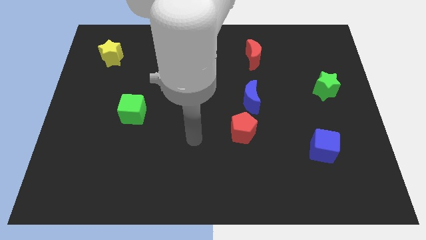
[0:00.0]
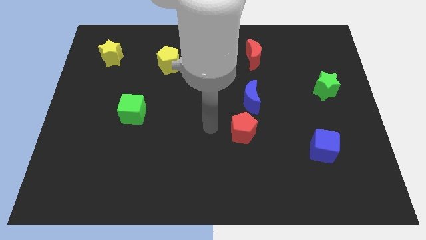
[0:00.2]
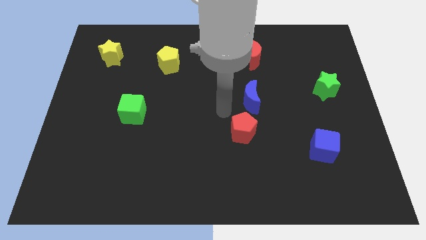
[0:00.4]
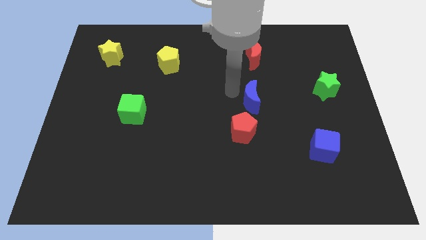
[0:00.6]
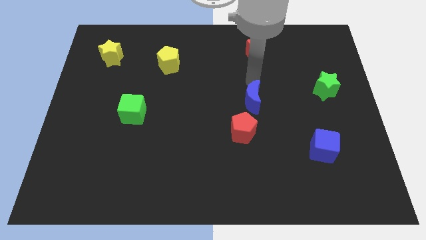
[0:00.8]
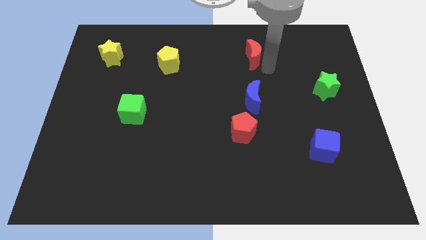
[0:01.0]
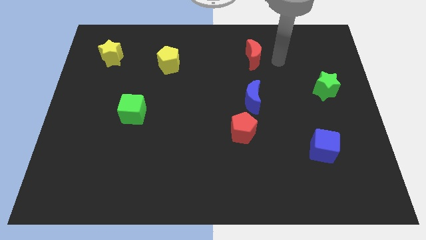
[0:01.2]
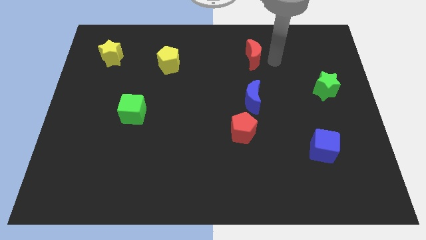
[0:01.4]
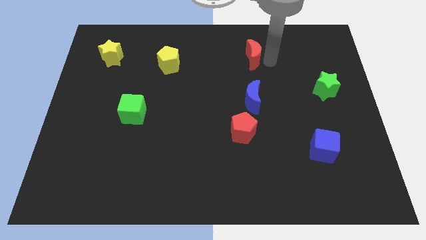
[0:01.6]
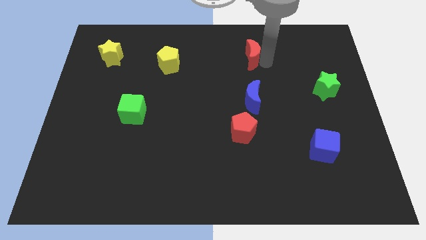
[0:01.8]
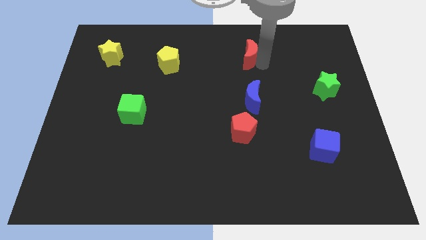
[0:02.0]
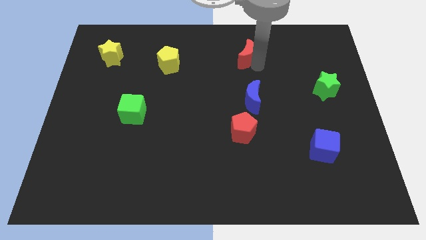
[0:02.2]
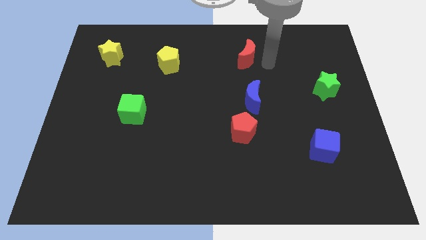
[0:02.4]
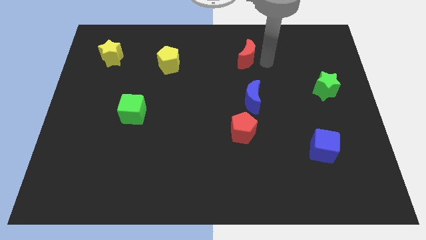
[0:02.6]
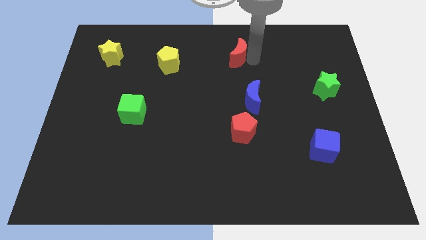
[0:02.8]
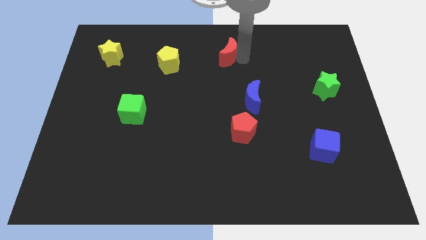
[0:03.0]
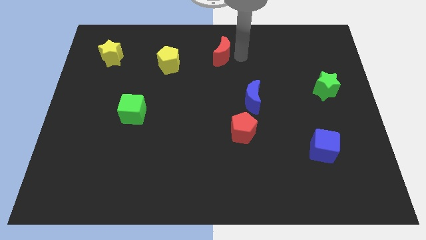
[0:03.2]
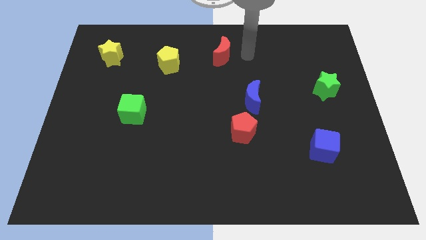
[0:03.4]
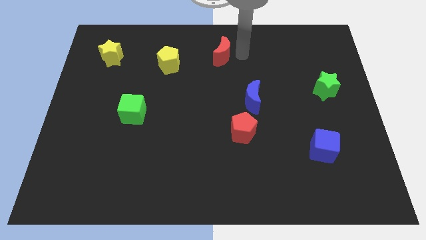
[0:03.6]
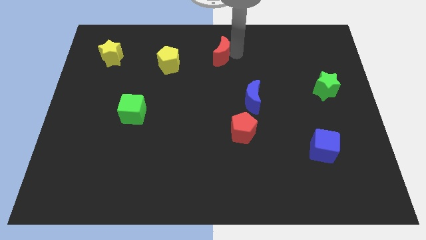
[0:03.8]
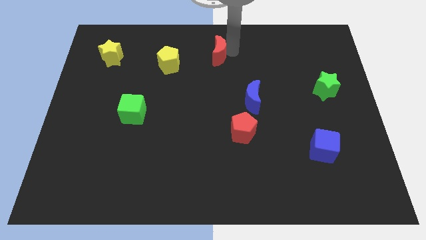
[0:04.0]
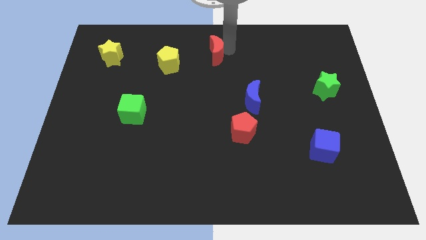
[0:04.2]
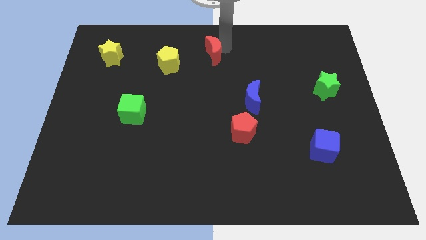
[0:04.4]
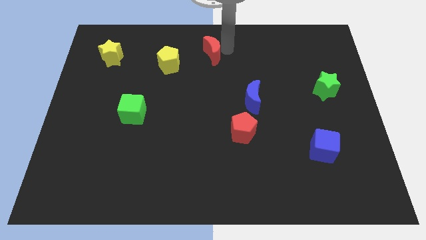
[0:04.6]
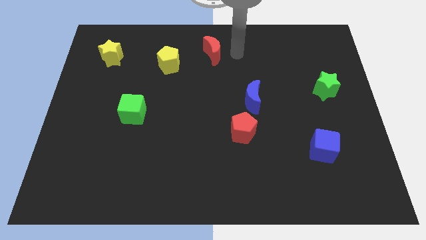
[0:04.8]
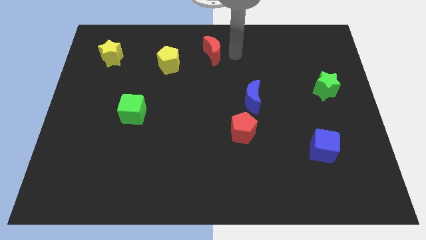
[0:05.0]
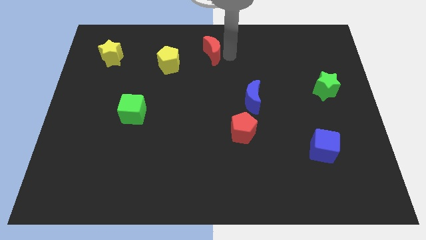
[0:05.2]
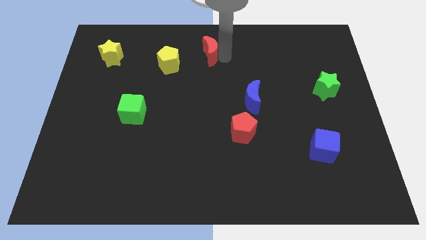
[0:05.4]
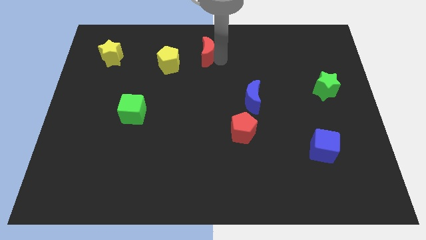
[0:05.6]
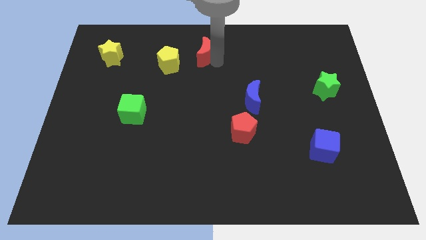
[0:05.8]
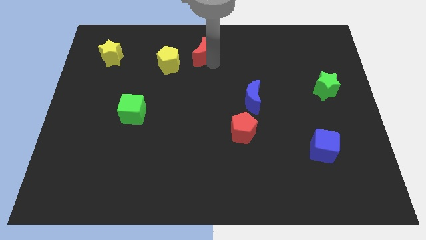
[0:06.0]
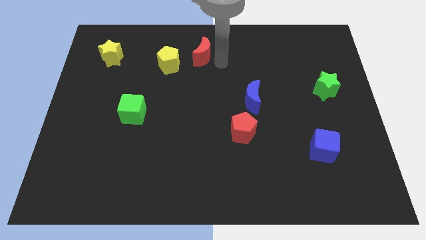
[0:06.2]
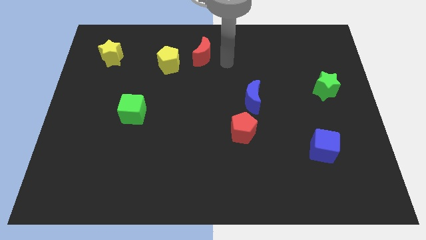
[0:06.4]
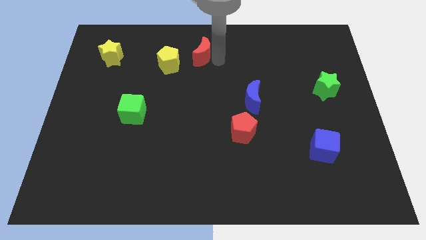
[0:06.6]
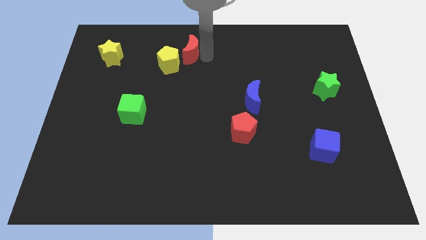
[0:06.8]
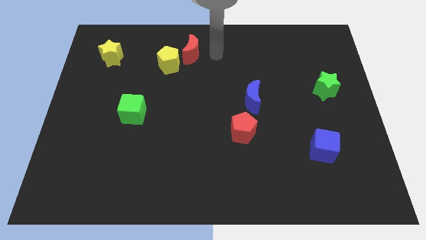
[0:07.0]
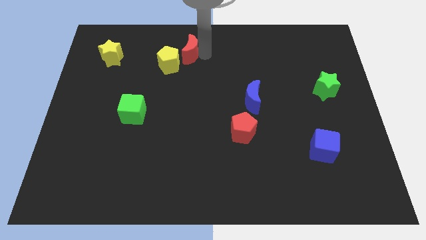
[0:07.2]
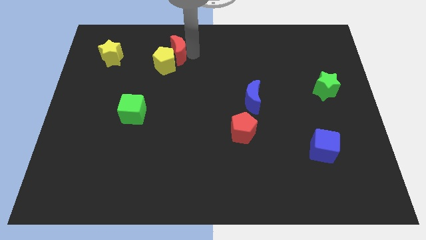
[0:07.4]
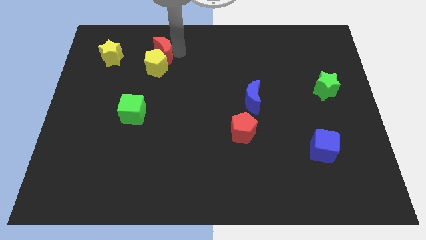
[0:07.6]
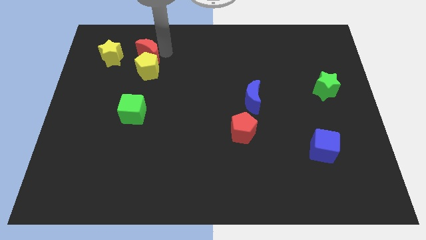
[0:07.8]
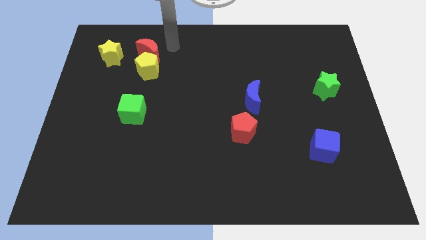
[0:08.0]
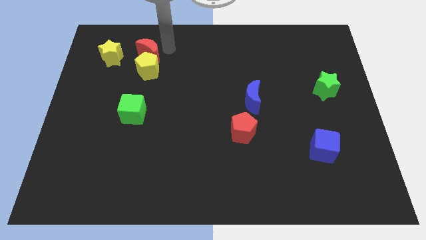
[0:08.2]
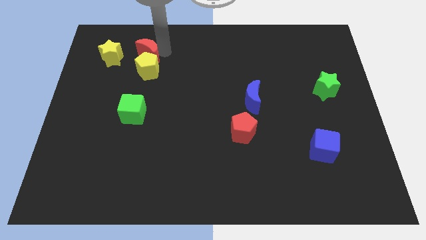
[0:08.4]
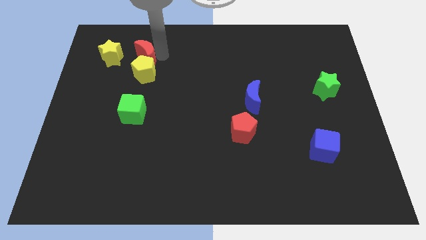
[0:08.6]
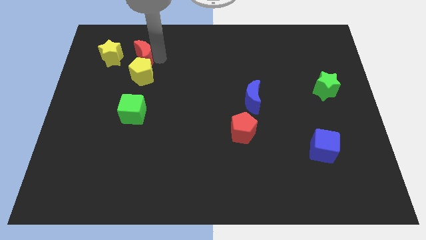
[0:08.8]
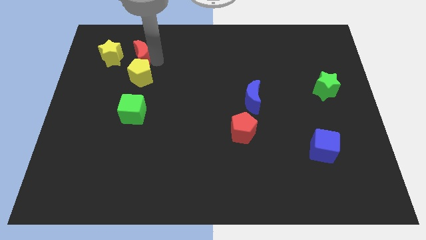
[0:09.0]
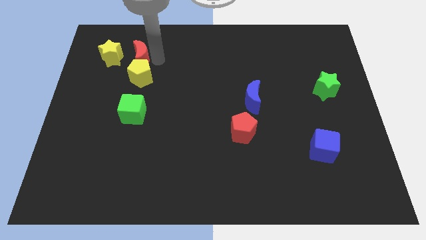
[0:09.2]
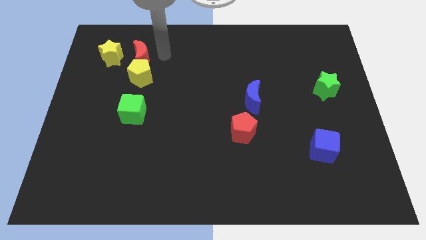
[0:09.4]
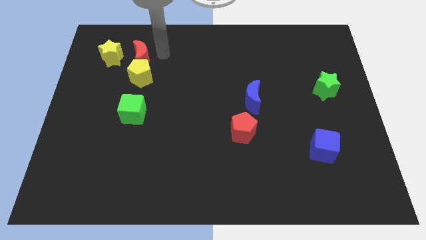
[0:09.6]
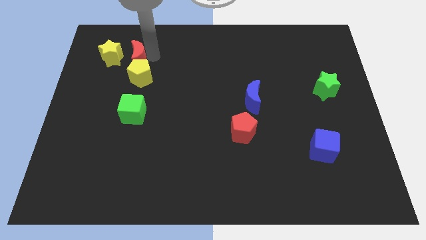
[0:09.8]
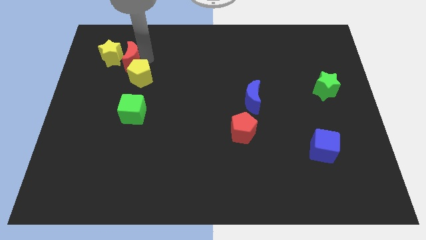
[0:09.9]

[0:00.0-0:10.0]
push the red moon to the yellow star

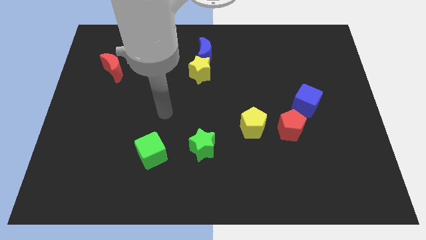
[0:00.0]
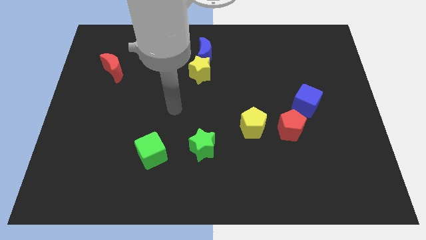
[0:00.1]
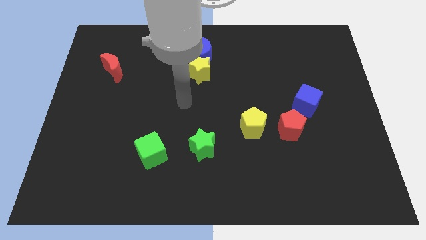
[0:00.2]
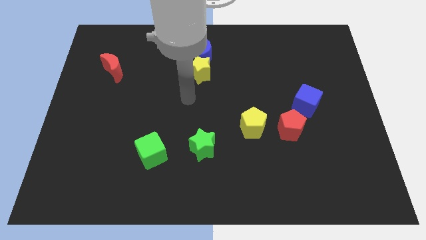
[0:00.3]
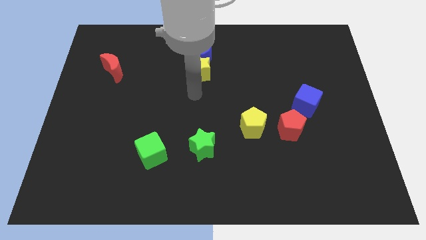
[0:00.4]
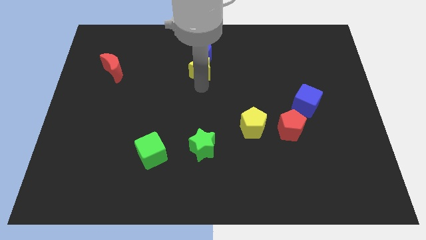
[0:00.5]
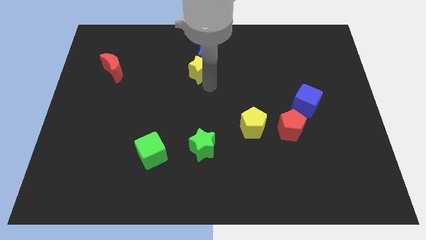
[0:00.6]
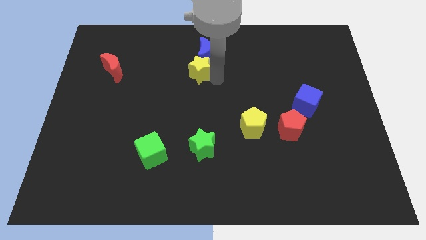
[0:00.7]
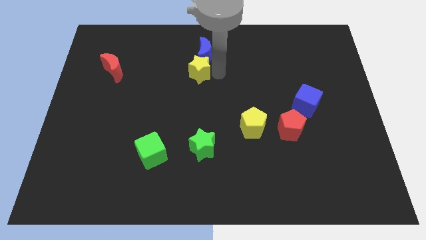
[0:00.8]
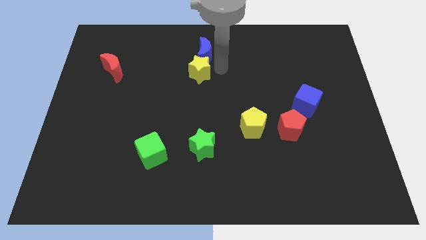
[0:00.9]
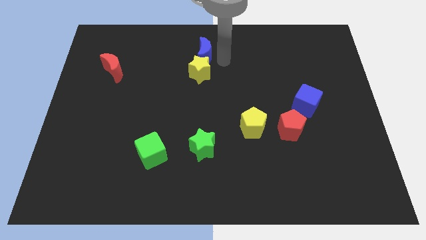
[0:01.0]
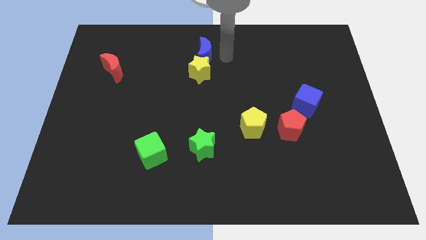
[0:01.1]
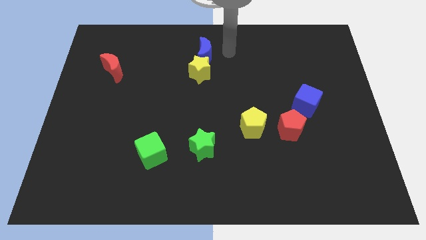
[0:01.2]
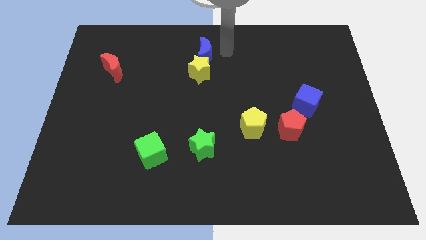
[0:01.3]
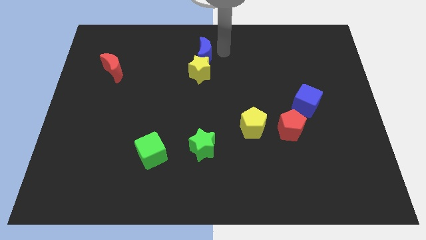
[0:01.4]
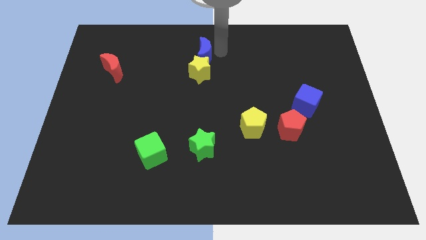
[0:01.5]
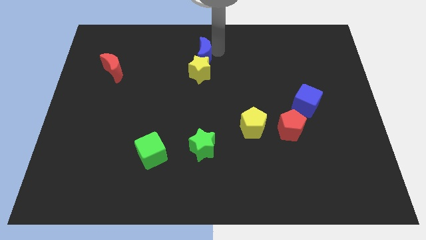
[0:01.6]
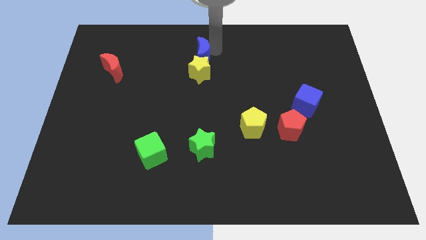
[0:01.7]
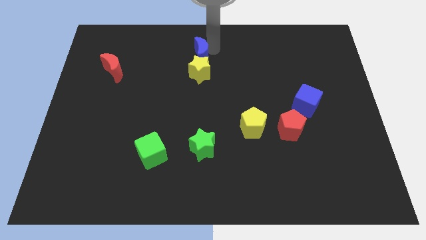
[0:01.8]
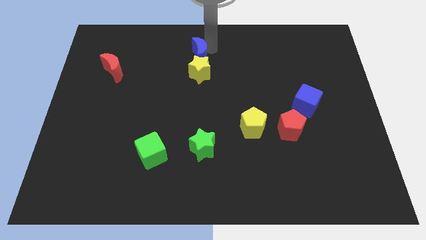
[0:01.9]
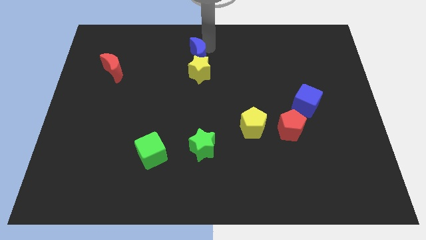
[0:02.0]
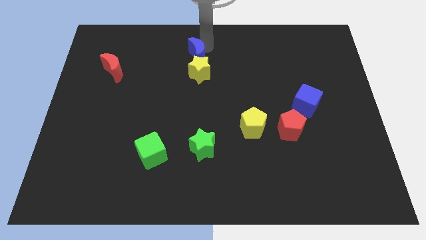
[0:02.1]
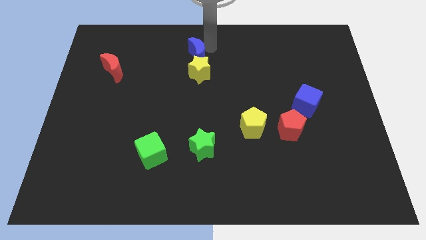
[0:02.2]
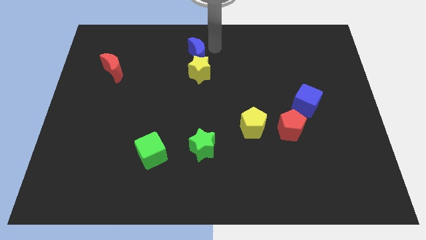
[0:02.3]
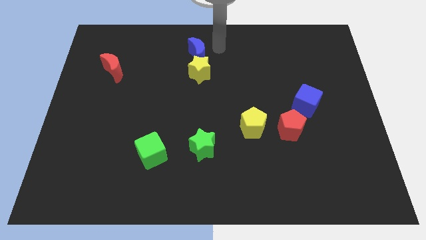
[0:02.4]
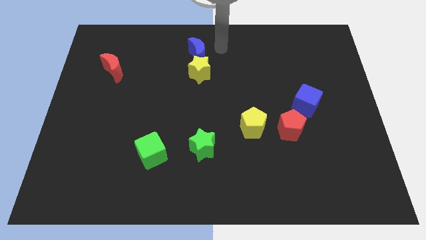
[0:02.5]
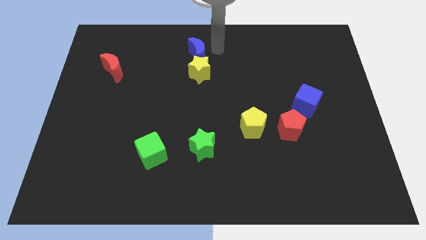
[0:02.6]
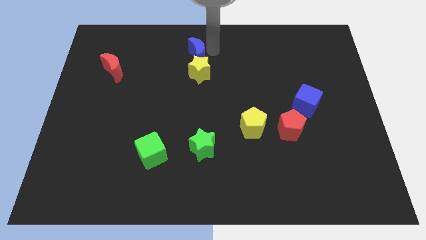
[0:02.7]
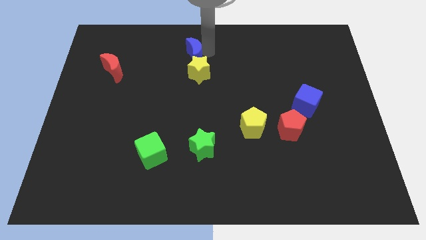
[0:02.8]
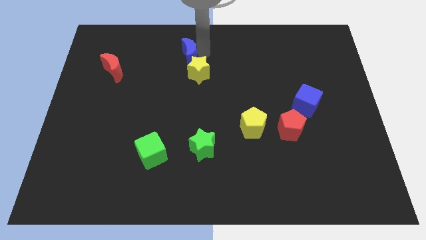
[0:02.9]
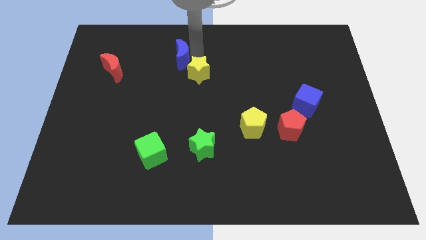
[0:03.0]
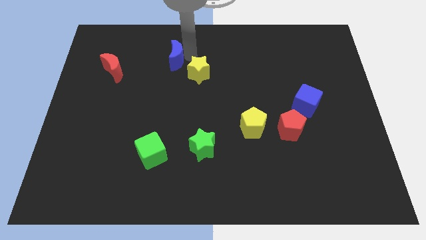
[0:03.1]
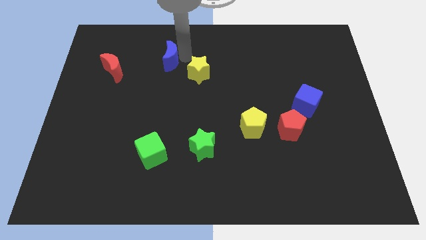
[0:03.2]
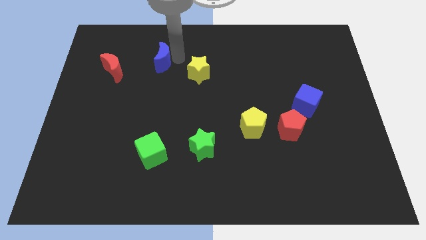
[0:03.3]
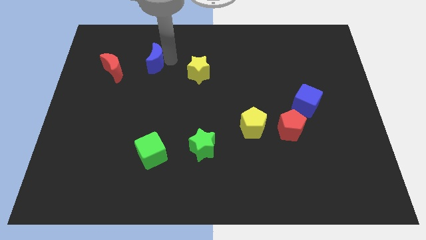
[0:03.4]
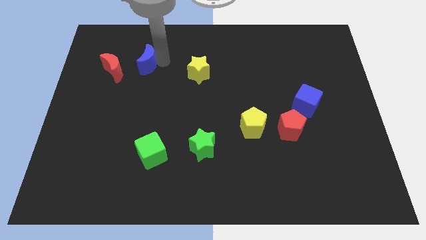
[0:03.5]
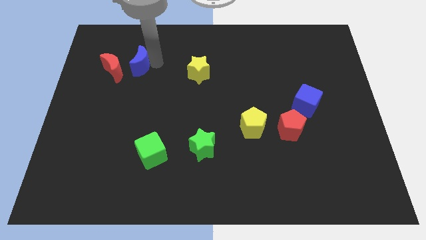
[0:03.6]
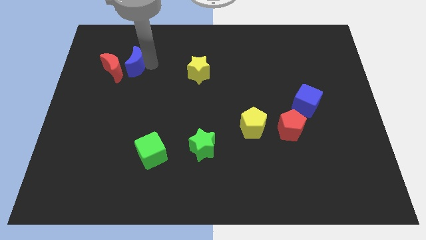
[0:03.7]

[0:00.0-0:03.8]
push the blue moon towards the red moon
